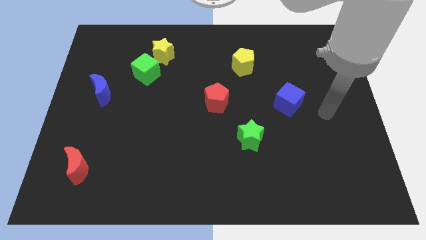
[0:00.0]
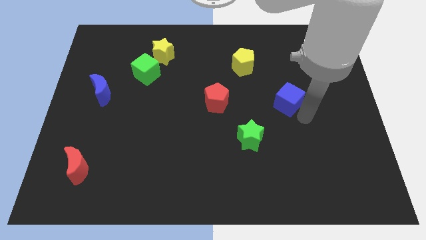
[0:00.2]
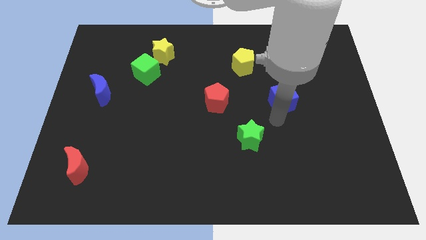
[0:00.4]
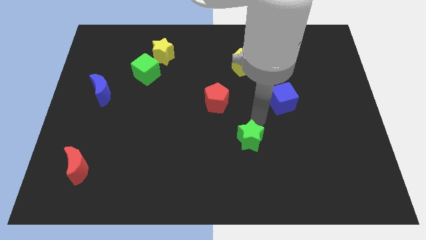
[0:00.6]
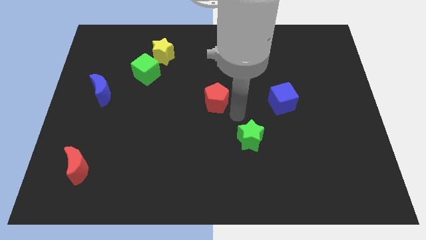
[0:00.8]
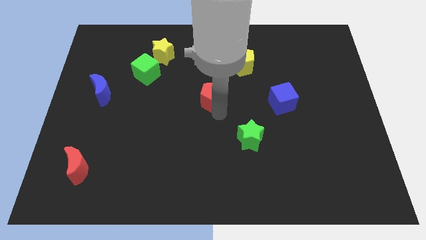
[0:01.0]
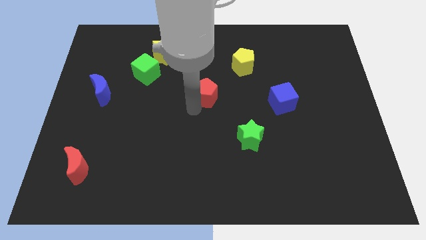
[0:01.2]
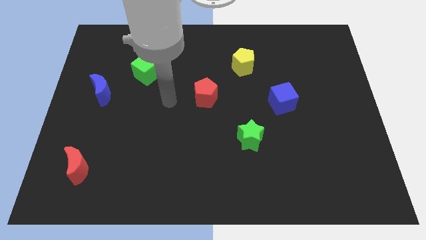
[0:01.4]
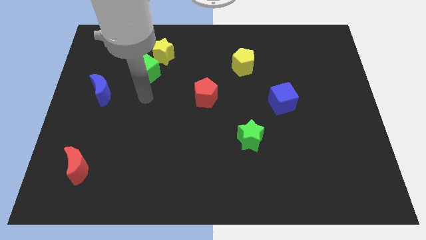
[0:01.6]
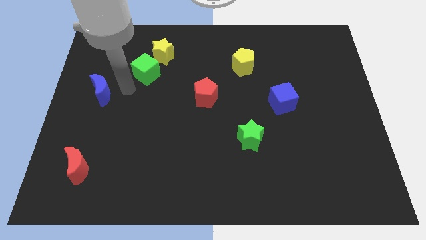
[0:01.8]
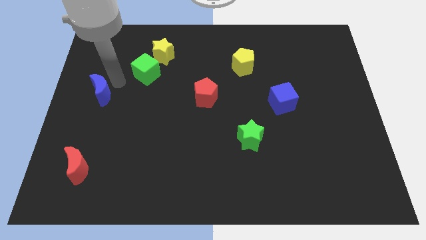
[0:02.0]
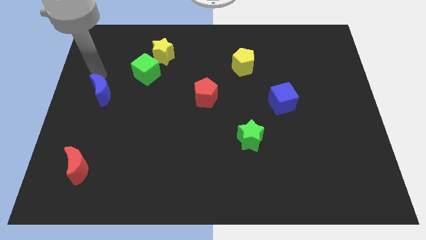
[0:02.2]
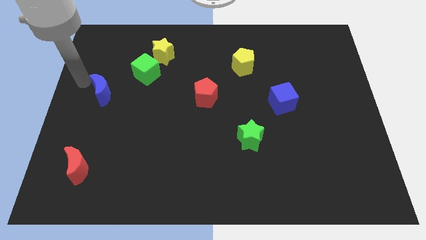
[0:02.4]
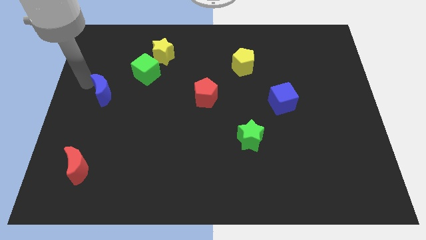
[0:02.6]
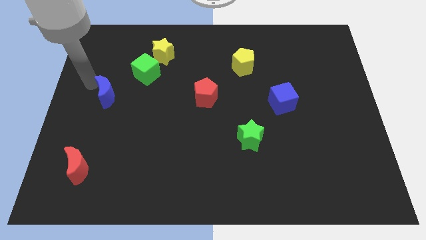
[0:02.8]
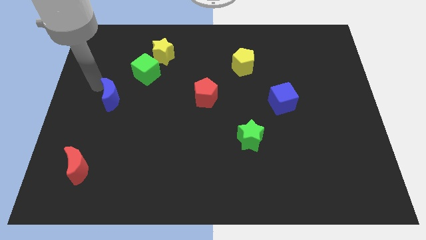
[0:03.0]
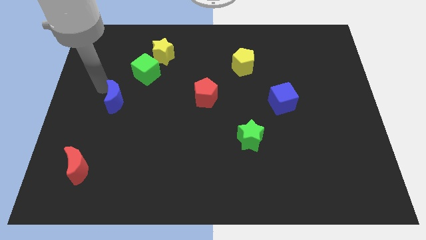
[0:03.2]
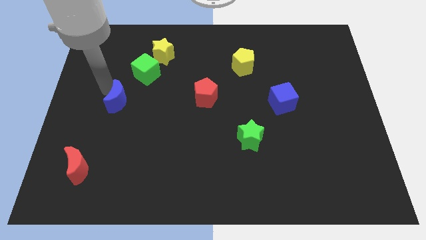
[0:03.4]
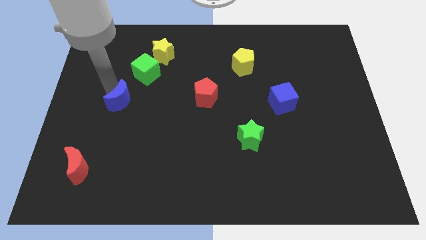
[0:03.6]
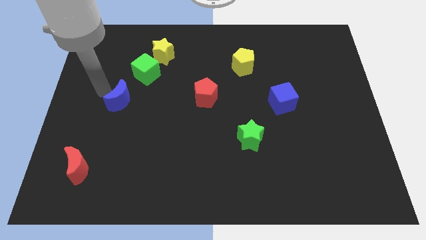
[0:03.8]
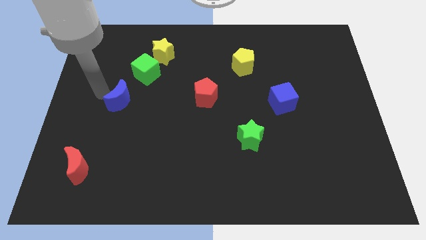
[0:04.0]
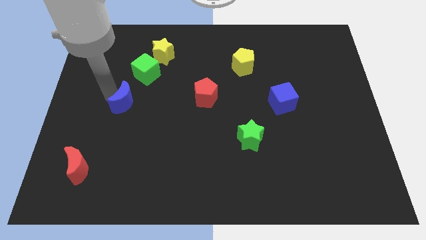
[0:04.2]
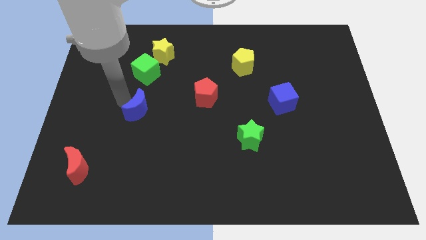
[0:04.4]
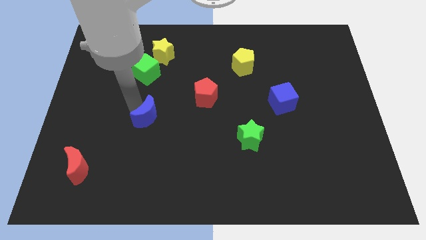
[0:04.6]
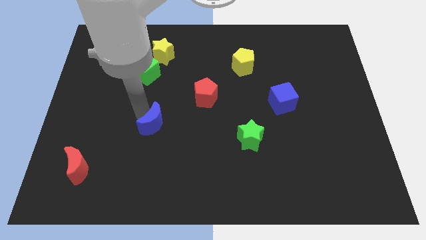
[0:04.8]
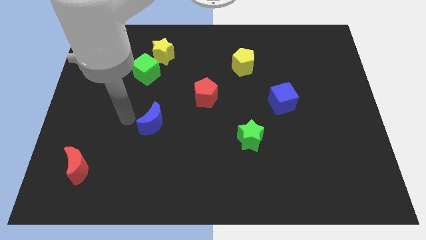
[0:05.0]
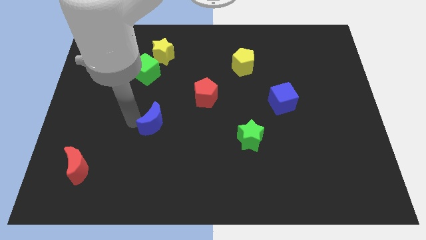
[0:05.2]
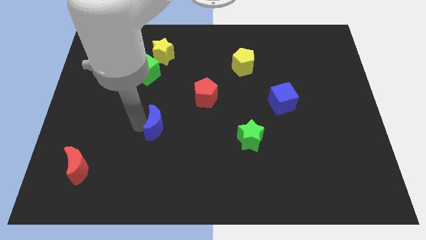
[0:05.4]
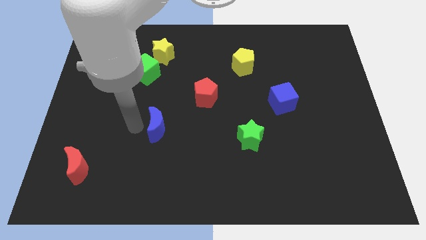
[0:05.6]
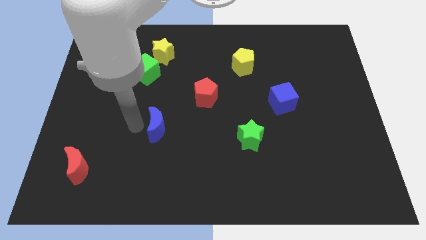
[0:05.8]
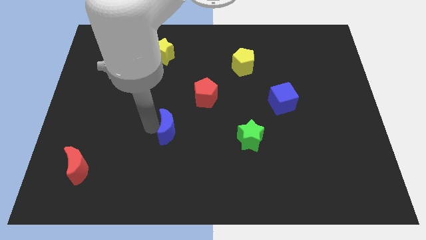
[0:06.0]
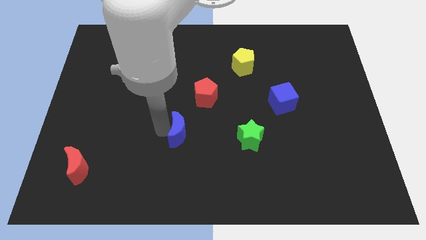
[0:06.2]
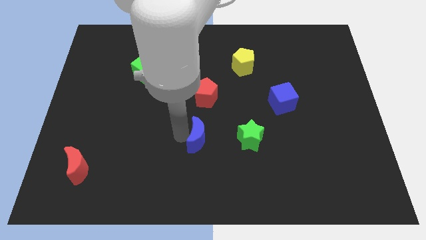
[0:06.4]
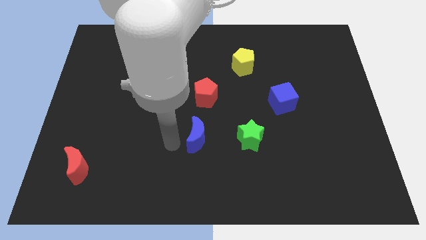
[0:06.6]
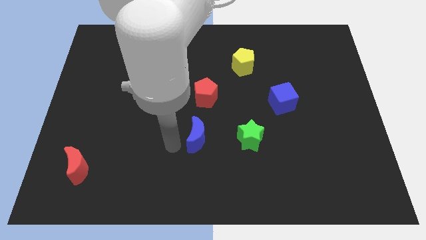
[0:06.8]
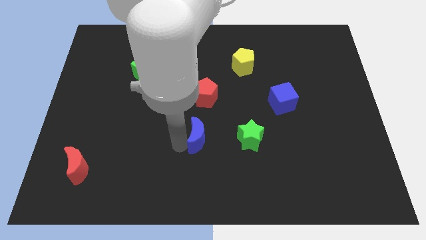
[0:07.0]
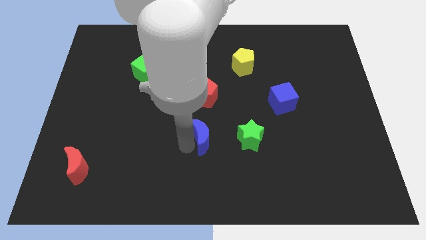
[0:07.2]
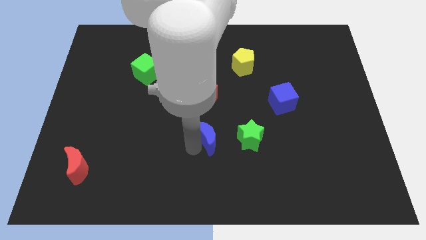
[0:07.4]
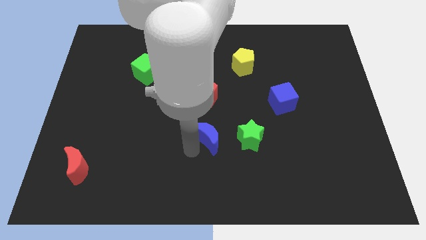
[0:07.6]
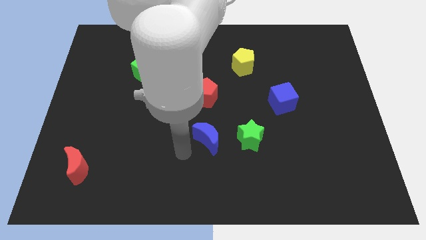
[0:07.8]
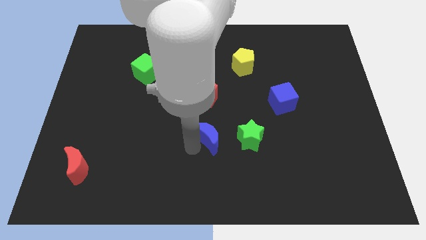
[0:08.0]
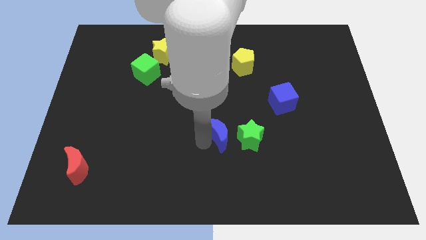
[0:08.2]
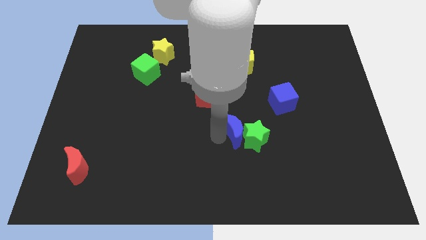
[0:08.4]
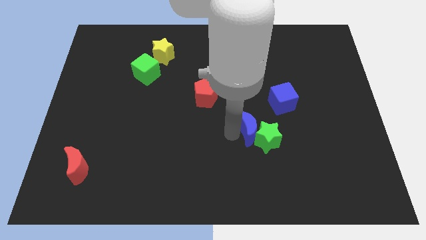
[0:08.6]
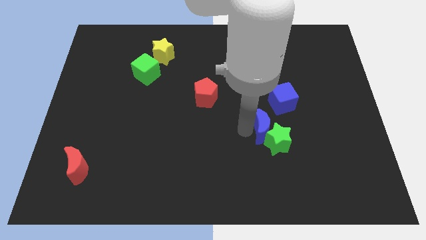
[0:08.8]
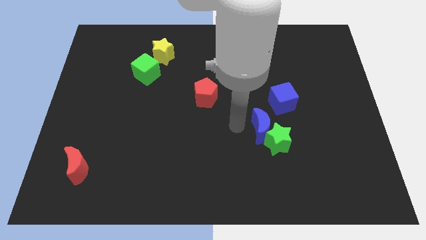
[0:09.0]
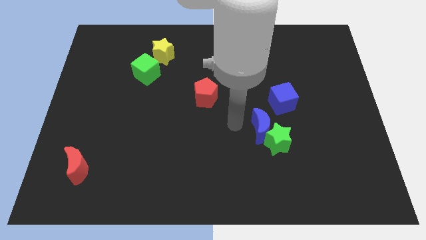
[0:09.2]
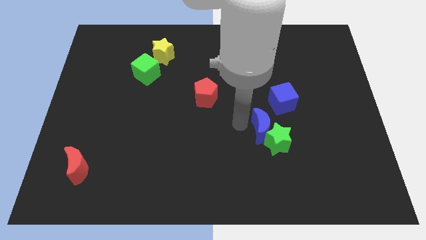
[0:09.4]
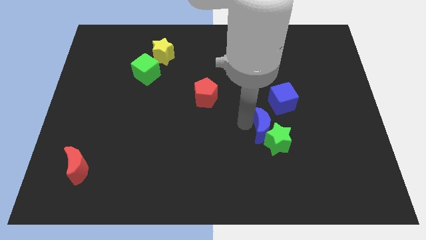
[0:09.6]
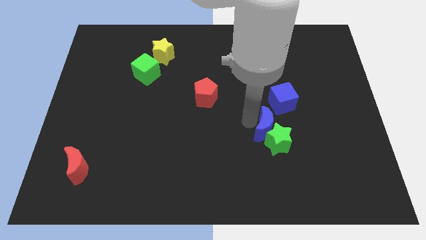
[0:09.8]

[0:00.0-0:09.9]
put the blue moon below the blue cube

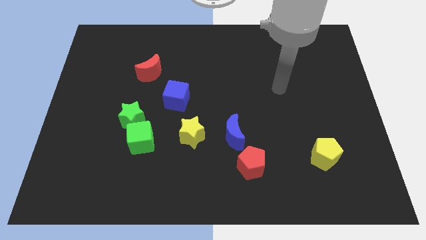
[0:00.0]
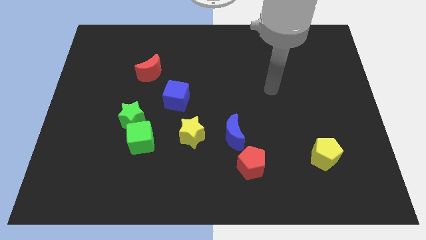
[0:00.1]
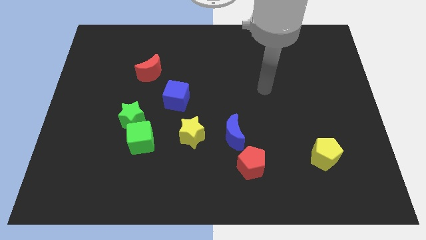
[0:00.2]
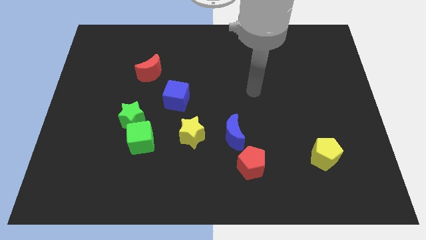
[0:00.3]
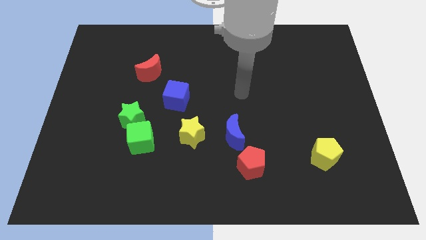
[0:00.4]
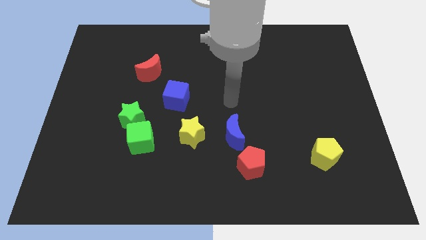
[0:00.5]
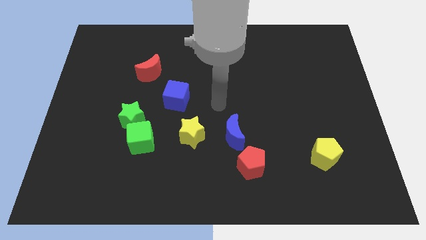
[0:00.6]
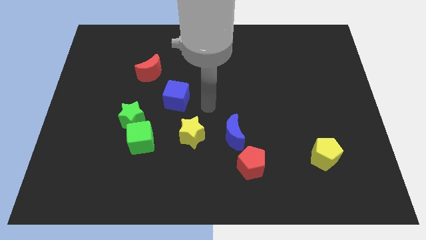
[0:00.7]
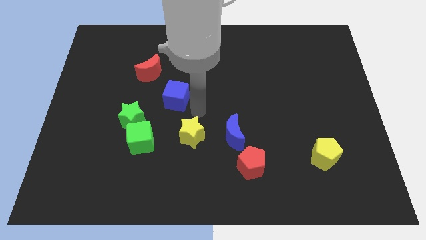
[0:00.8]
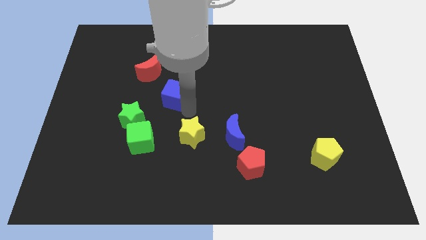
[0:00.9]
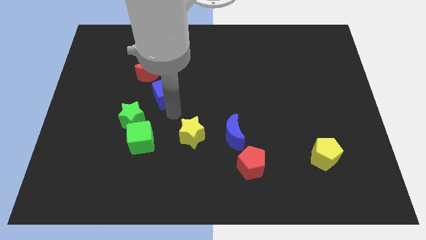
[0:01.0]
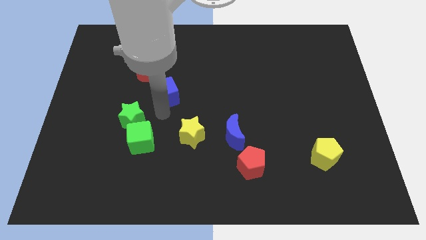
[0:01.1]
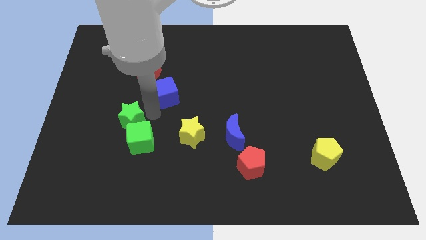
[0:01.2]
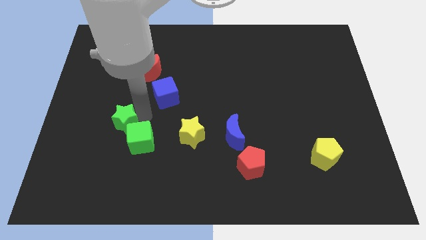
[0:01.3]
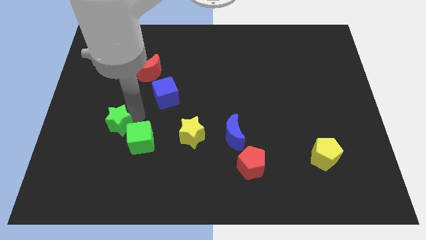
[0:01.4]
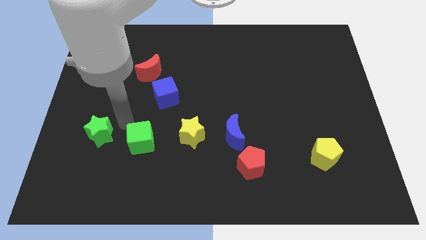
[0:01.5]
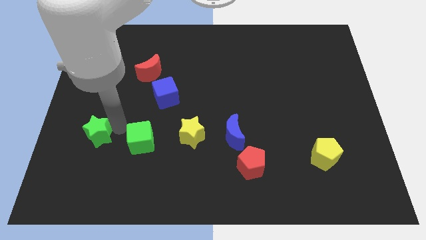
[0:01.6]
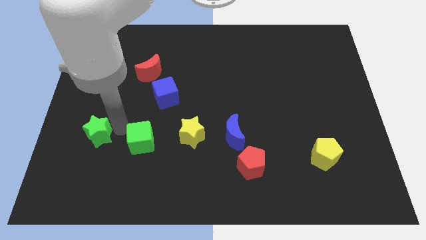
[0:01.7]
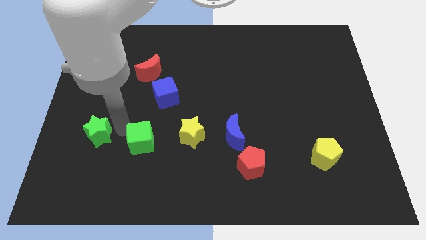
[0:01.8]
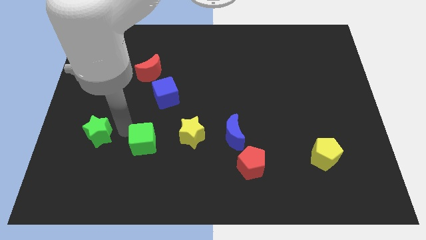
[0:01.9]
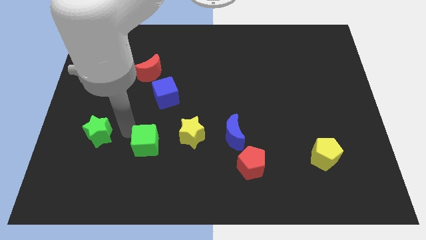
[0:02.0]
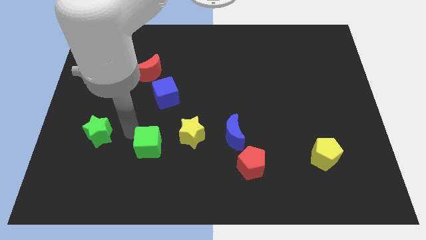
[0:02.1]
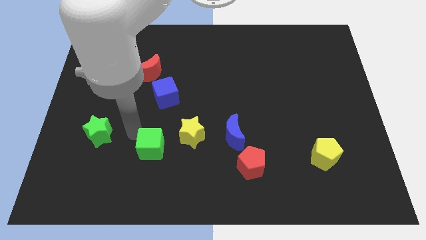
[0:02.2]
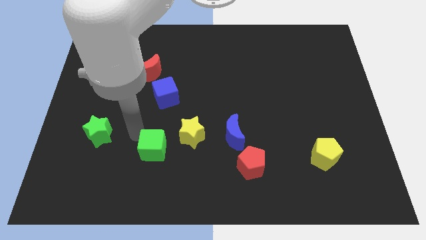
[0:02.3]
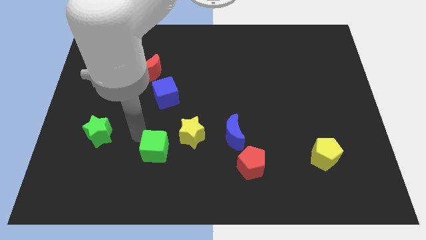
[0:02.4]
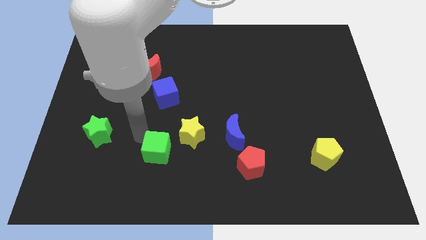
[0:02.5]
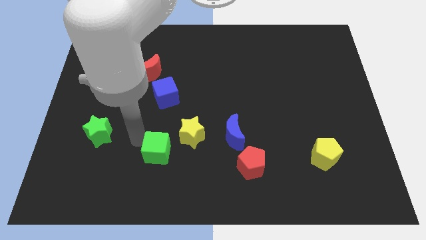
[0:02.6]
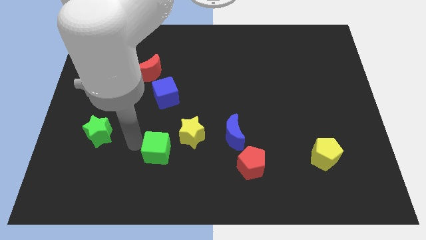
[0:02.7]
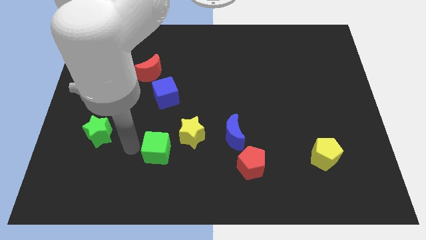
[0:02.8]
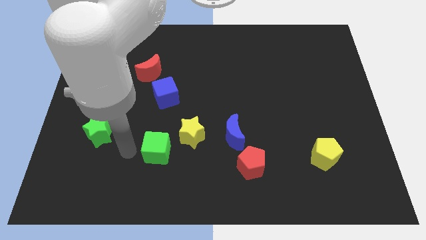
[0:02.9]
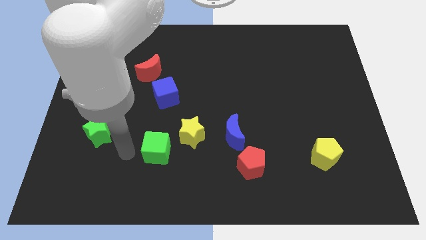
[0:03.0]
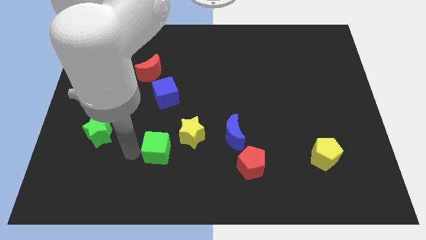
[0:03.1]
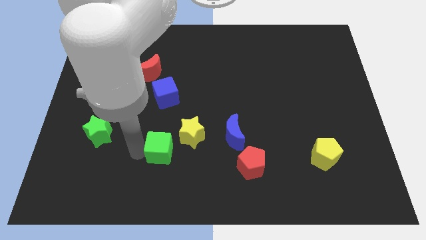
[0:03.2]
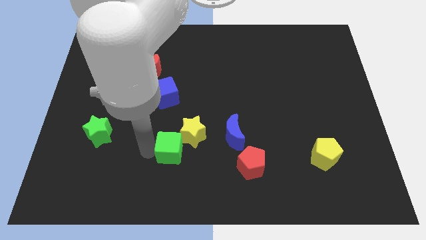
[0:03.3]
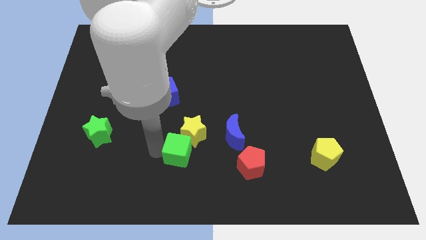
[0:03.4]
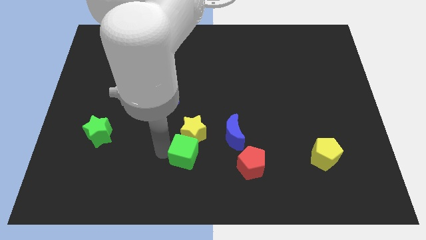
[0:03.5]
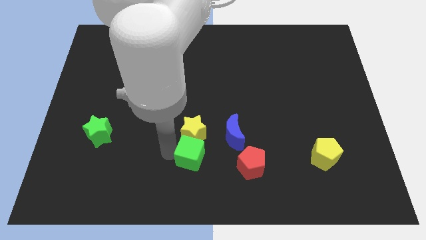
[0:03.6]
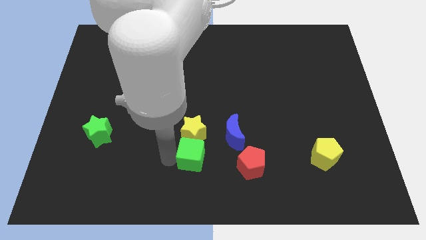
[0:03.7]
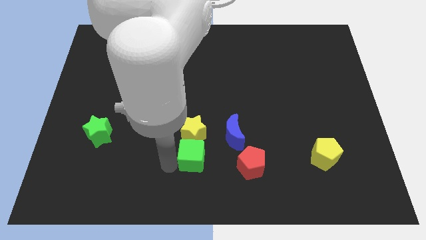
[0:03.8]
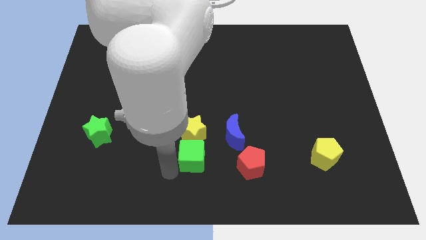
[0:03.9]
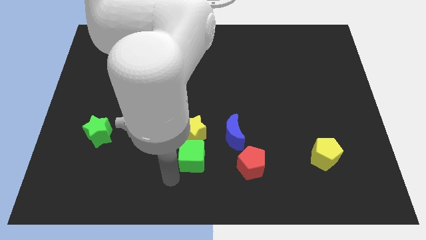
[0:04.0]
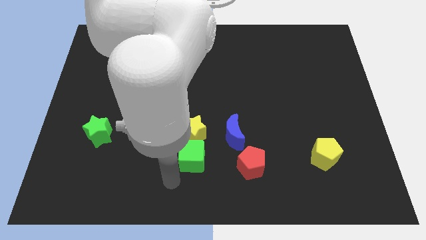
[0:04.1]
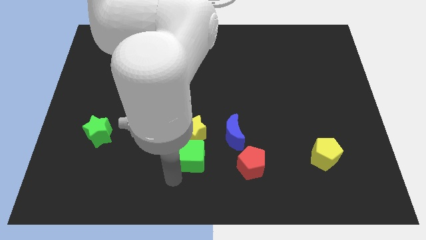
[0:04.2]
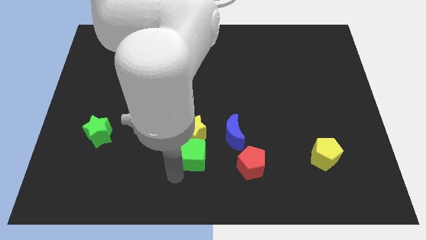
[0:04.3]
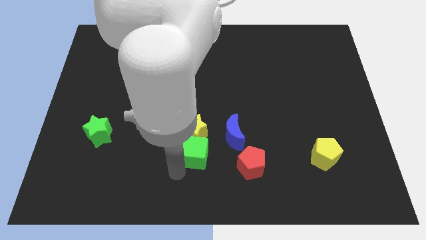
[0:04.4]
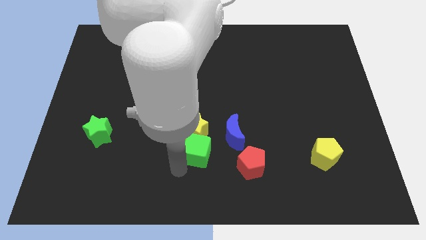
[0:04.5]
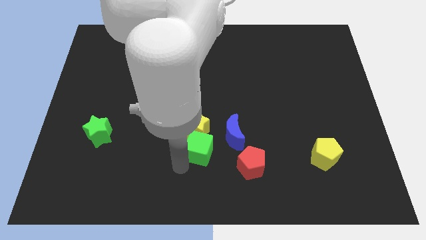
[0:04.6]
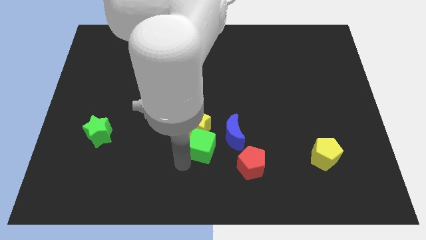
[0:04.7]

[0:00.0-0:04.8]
put the green cube to the top left side of the red pentagon
